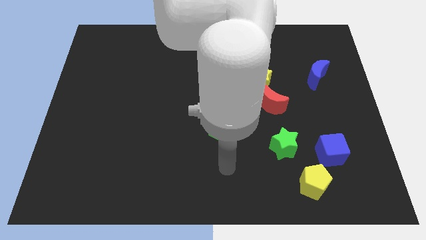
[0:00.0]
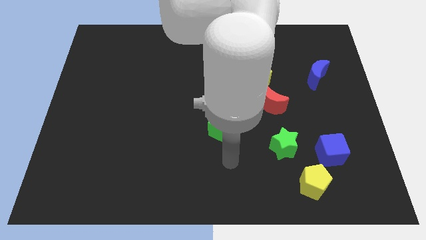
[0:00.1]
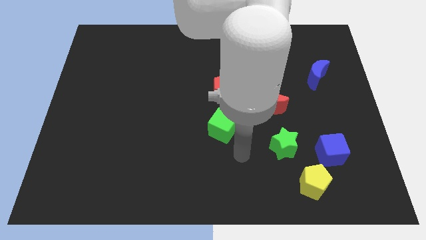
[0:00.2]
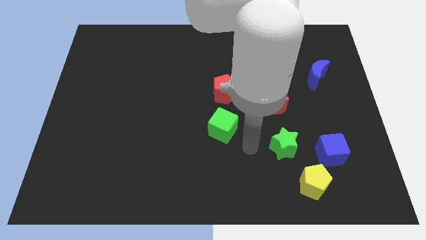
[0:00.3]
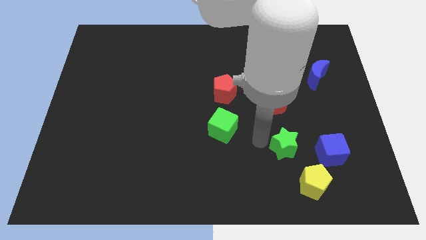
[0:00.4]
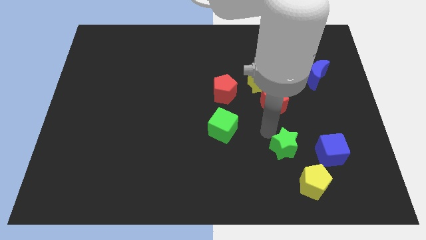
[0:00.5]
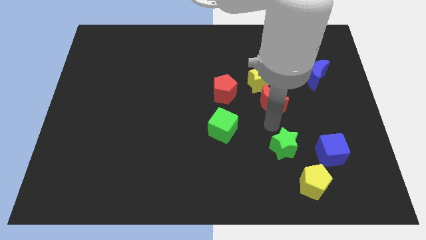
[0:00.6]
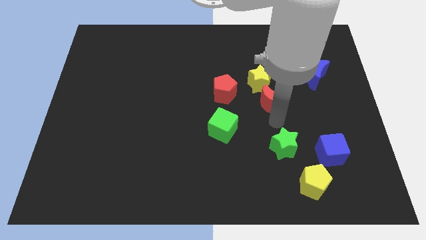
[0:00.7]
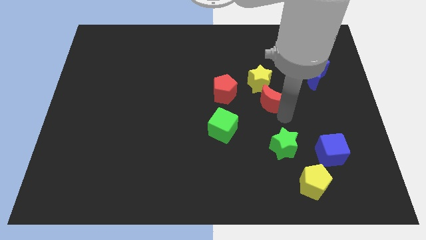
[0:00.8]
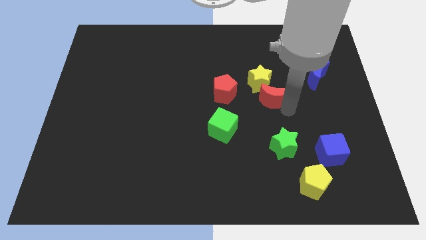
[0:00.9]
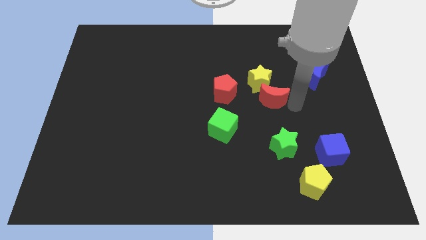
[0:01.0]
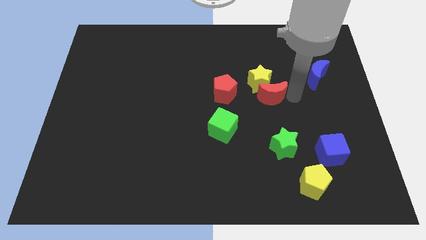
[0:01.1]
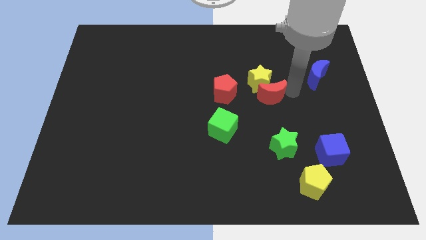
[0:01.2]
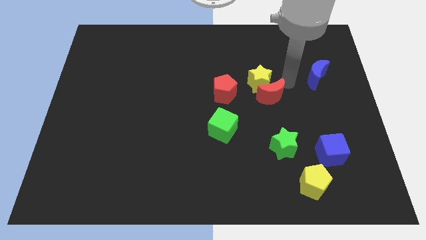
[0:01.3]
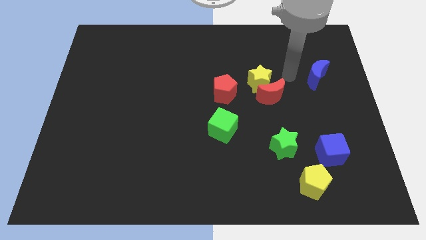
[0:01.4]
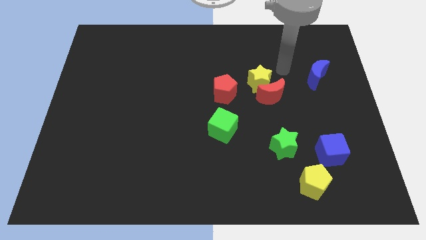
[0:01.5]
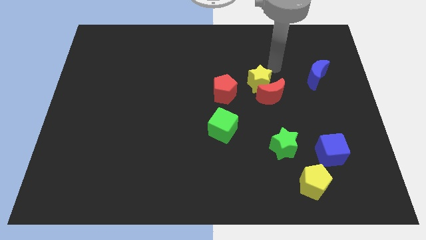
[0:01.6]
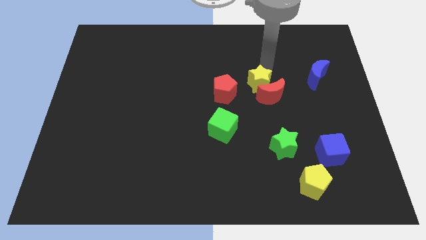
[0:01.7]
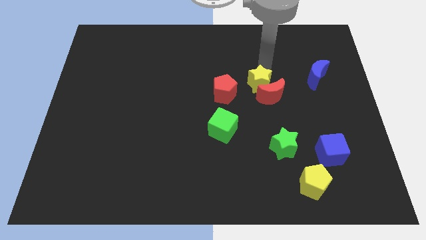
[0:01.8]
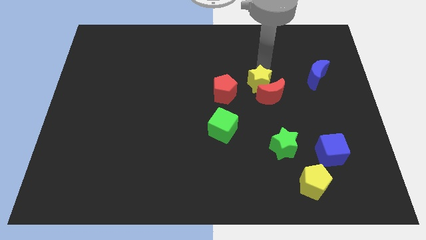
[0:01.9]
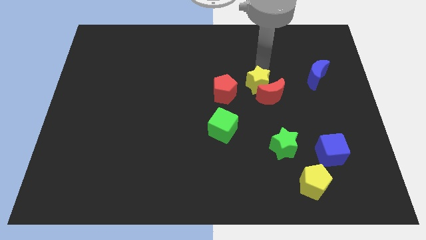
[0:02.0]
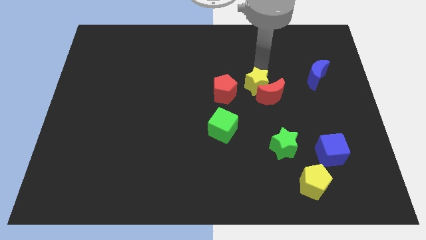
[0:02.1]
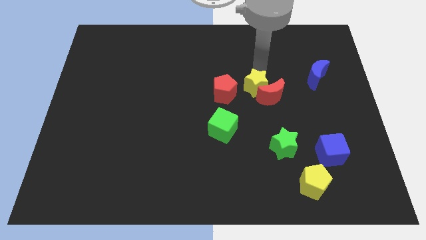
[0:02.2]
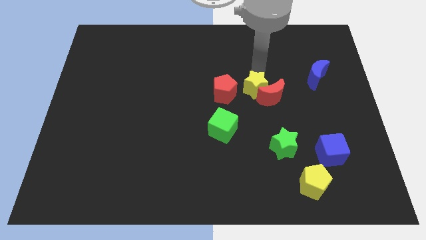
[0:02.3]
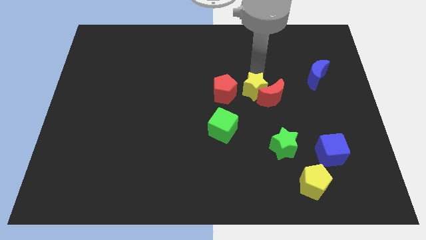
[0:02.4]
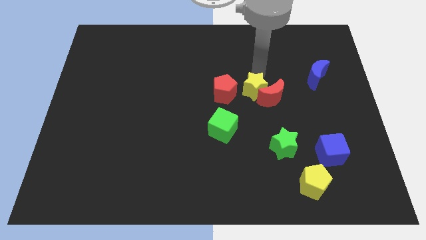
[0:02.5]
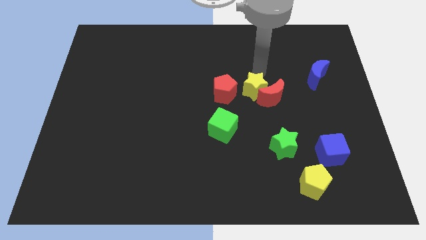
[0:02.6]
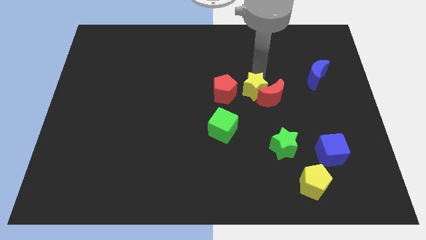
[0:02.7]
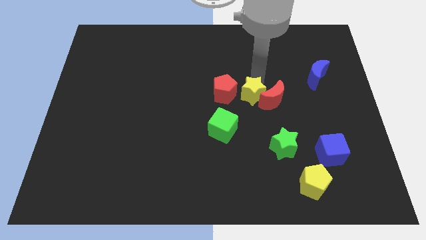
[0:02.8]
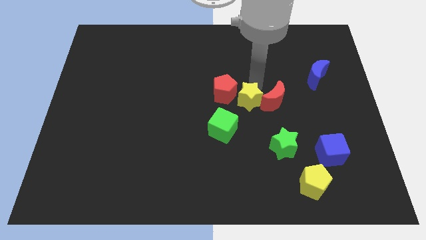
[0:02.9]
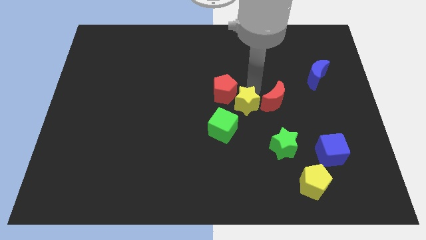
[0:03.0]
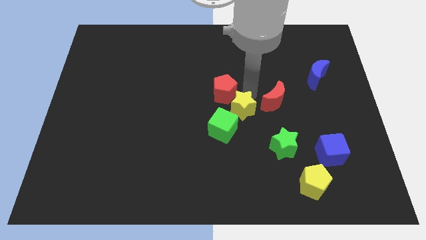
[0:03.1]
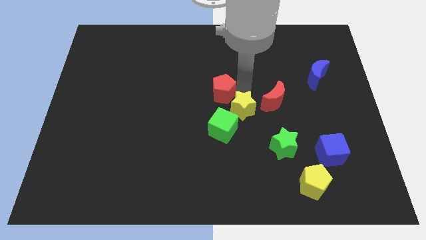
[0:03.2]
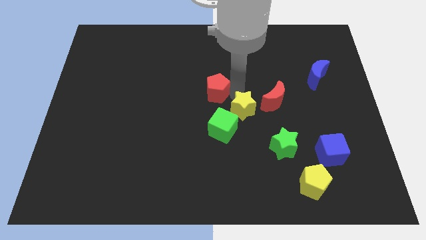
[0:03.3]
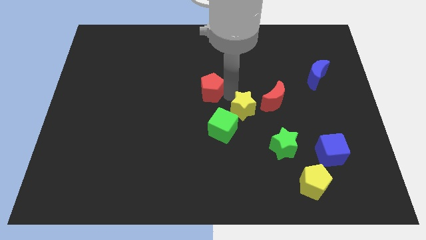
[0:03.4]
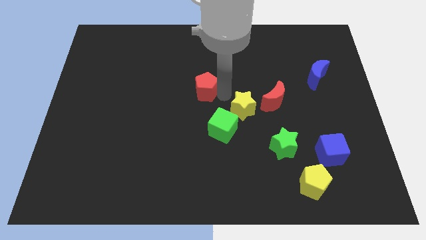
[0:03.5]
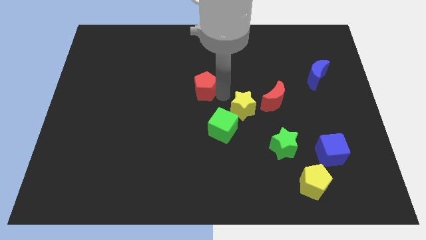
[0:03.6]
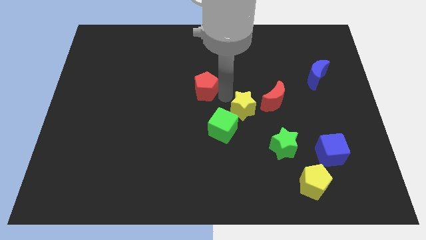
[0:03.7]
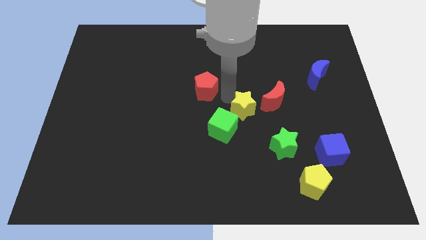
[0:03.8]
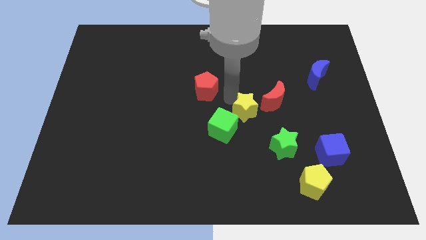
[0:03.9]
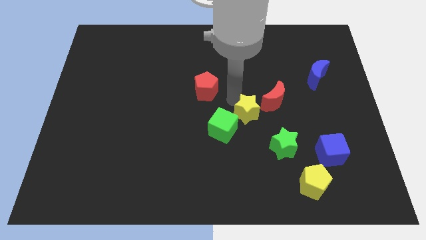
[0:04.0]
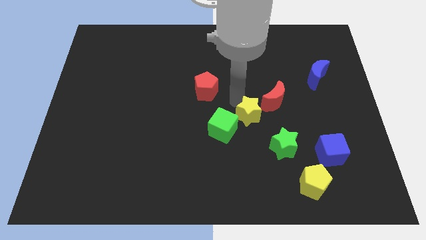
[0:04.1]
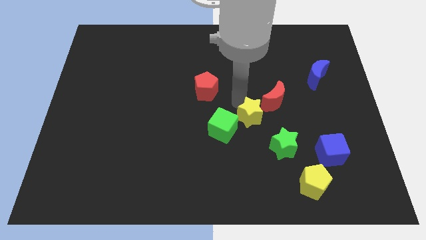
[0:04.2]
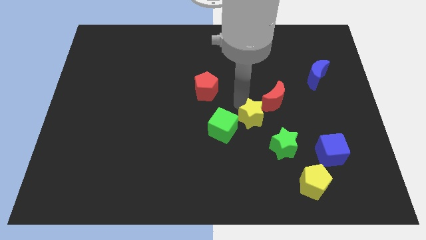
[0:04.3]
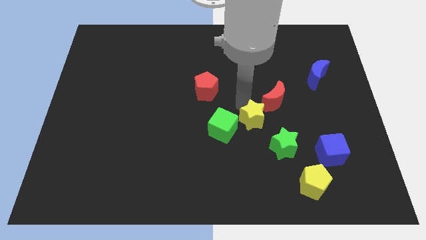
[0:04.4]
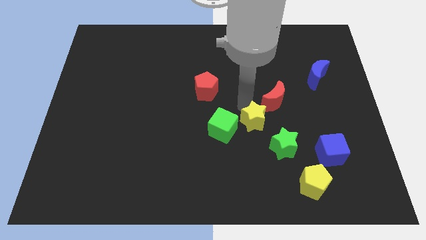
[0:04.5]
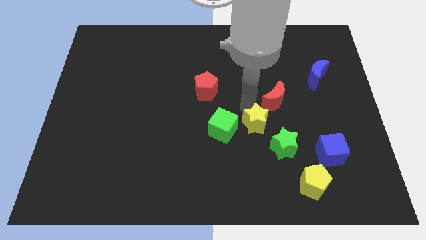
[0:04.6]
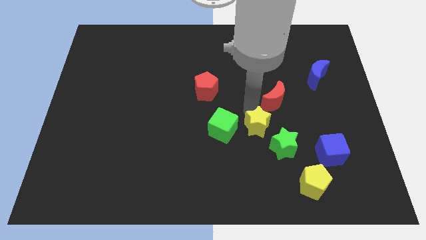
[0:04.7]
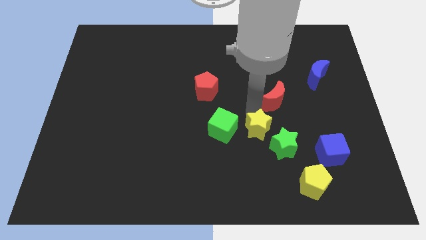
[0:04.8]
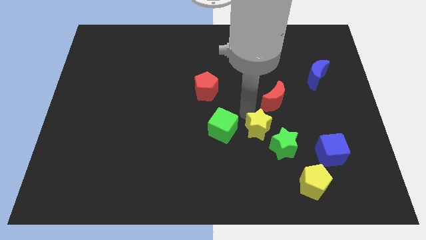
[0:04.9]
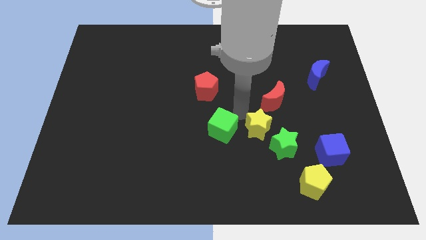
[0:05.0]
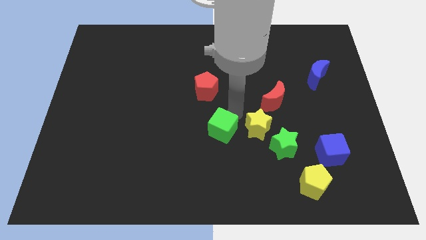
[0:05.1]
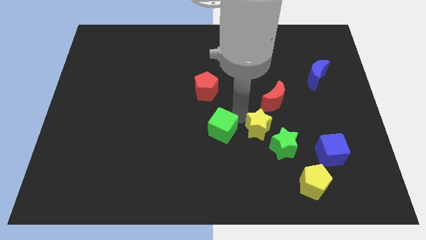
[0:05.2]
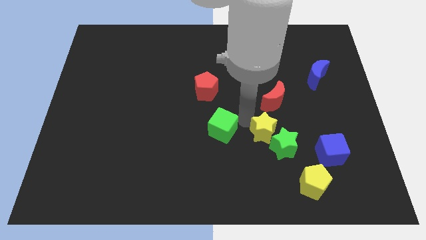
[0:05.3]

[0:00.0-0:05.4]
push the yellow star next to the green star

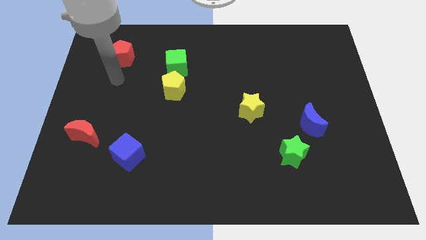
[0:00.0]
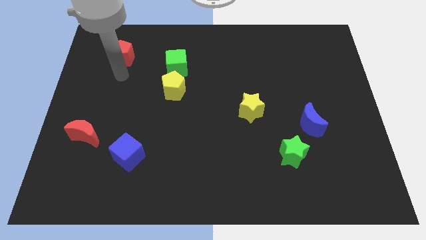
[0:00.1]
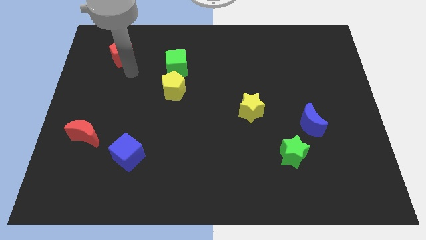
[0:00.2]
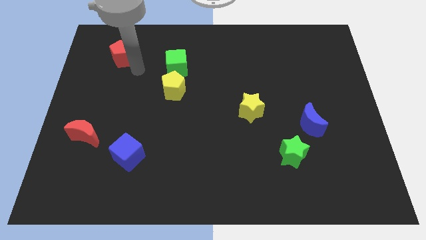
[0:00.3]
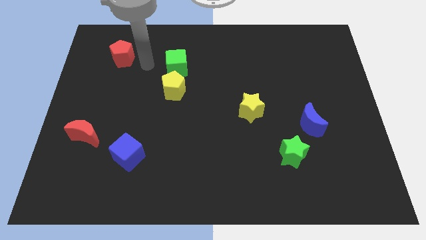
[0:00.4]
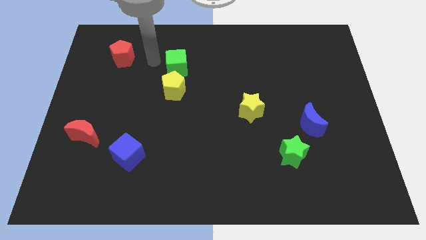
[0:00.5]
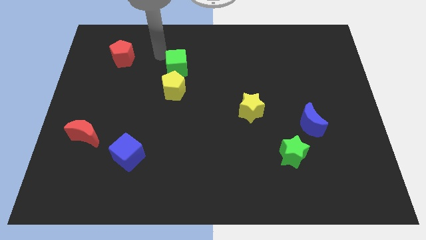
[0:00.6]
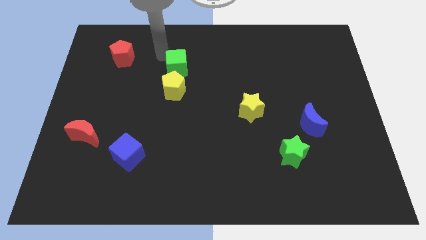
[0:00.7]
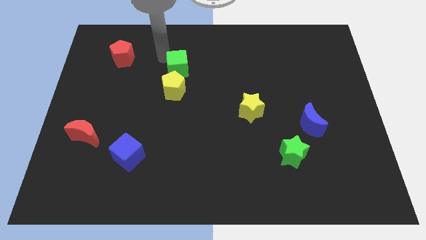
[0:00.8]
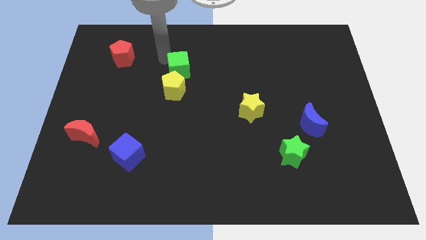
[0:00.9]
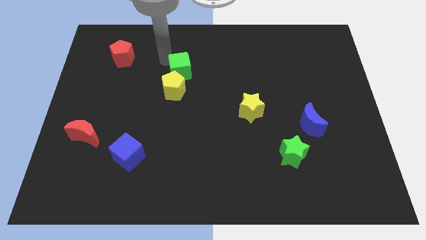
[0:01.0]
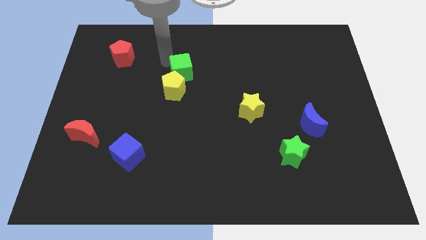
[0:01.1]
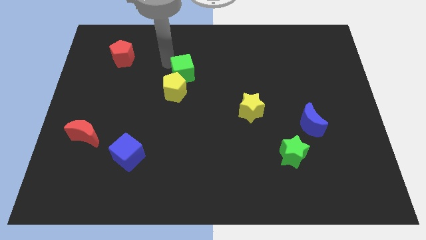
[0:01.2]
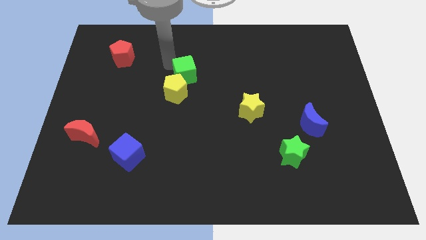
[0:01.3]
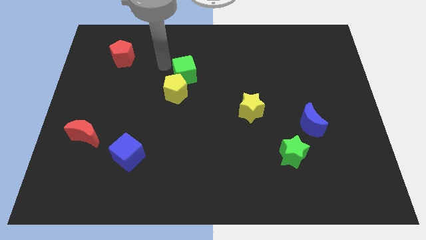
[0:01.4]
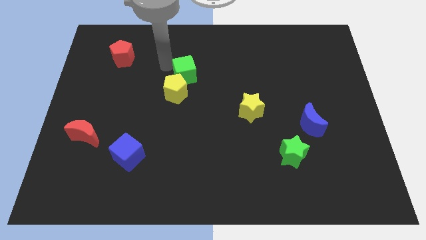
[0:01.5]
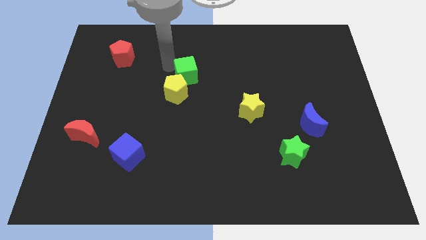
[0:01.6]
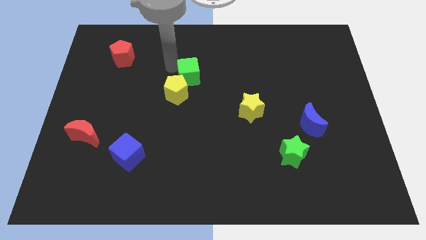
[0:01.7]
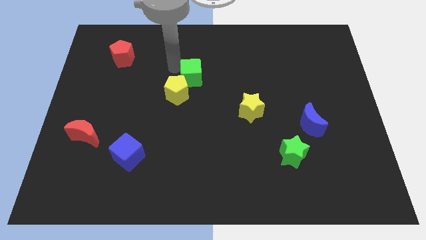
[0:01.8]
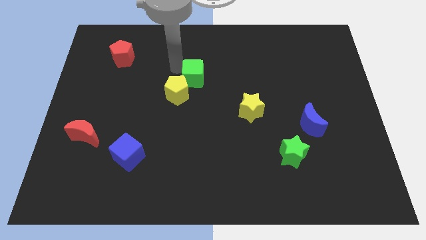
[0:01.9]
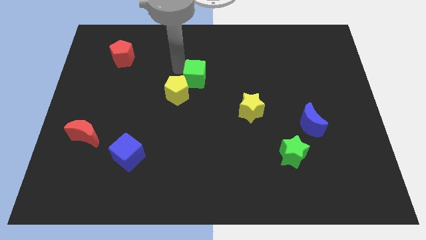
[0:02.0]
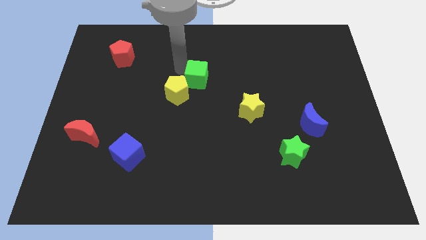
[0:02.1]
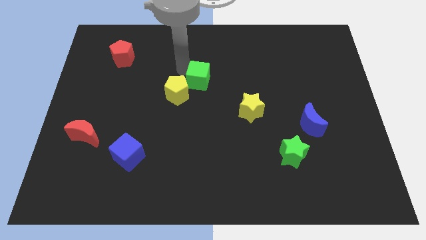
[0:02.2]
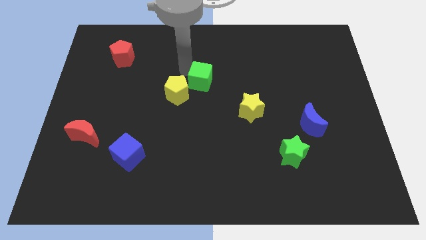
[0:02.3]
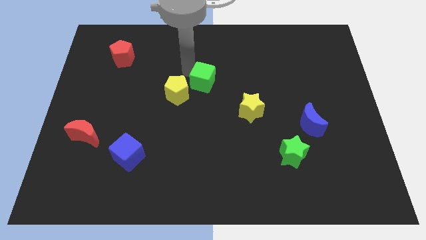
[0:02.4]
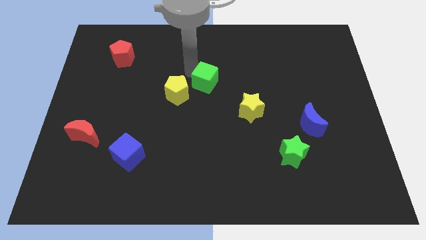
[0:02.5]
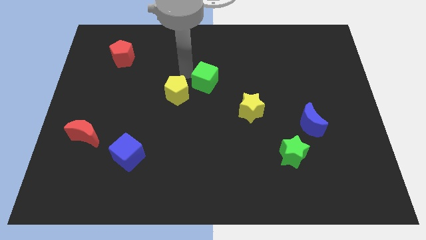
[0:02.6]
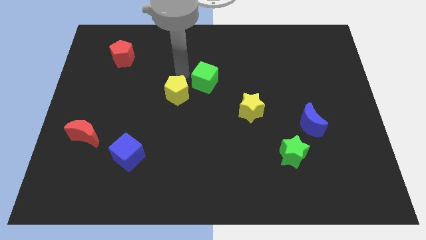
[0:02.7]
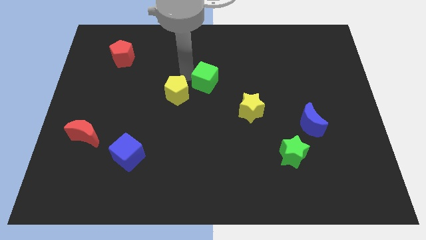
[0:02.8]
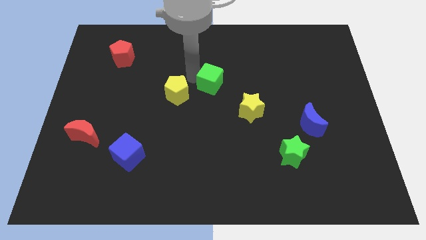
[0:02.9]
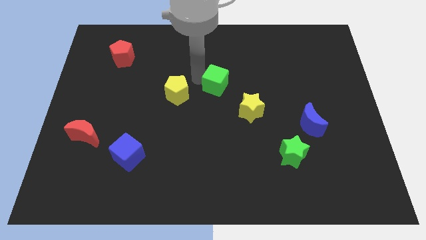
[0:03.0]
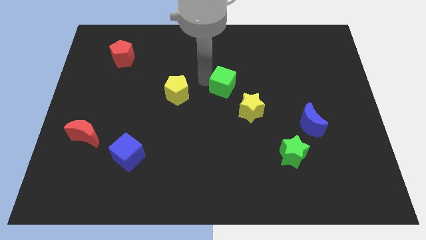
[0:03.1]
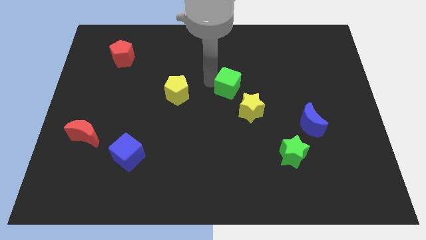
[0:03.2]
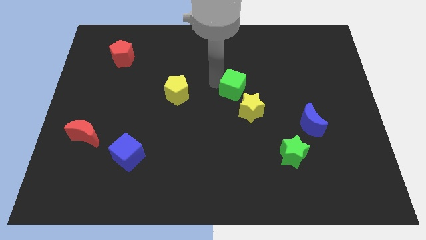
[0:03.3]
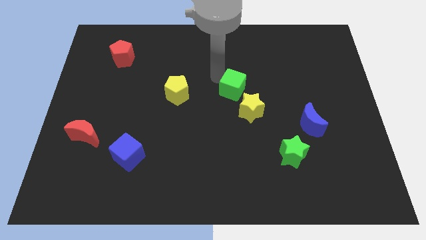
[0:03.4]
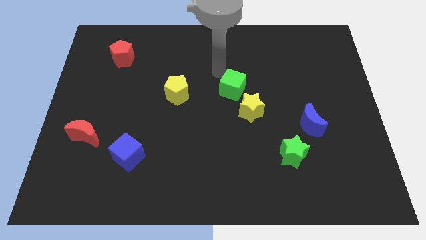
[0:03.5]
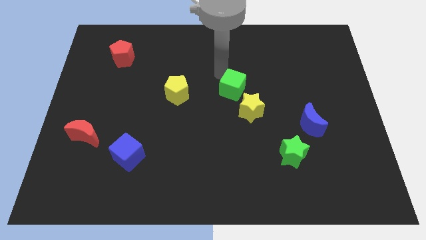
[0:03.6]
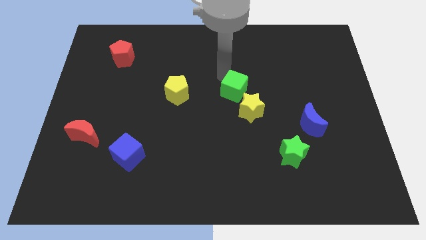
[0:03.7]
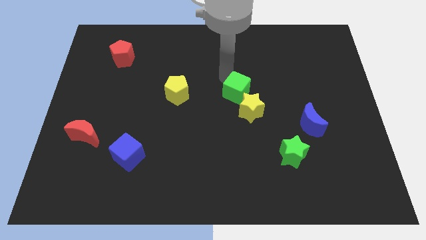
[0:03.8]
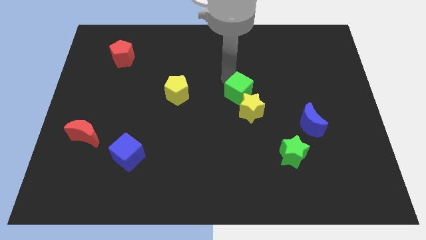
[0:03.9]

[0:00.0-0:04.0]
put the green cube next to the yellow star
